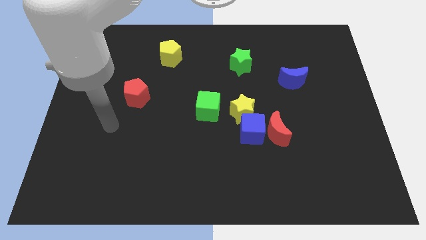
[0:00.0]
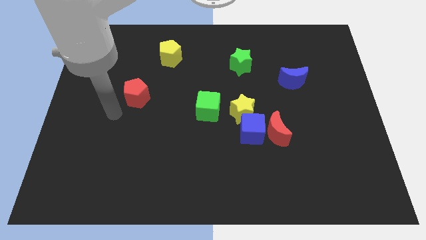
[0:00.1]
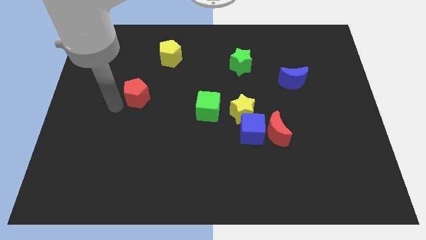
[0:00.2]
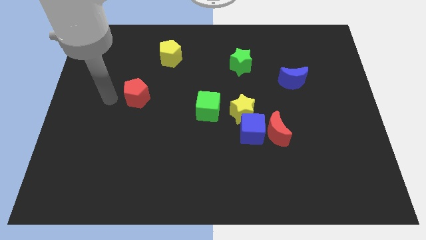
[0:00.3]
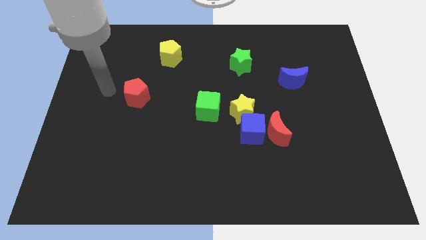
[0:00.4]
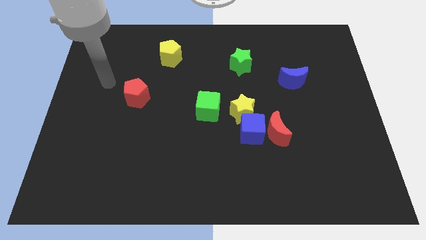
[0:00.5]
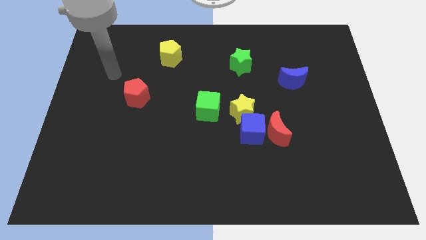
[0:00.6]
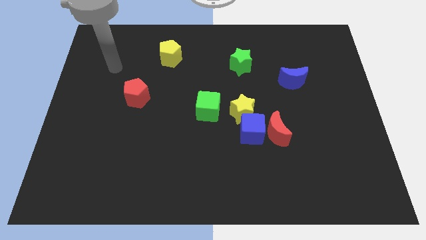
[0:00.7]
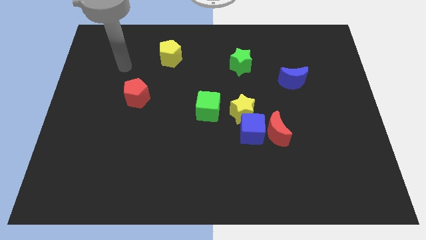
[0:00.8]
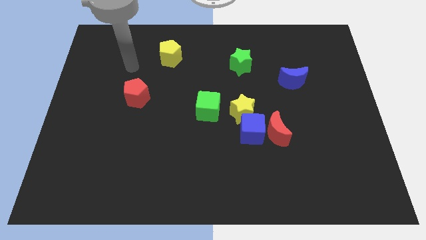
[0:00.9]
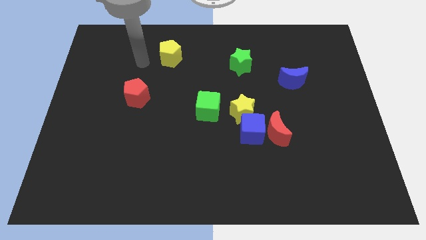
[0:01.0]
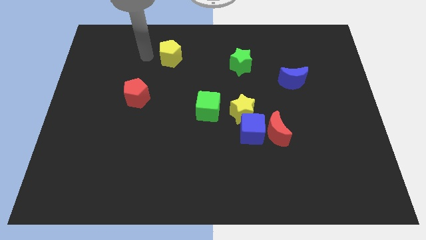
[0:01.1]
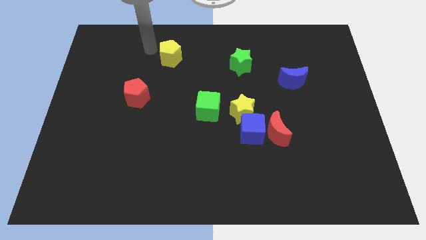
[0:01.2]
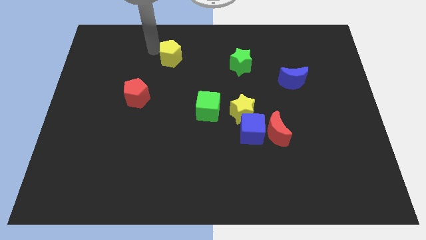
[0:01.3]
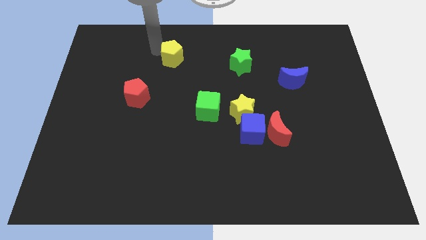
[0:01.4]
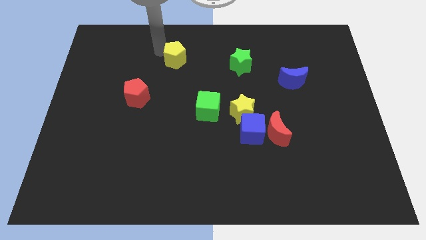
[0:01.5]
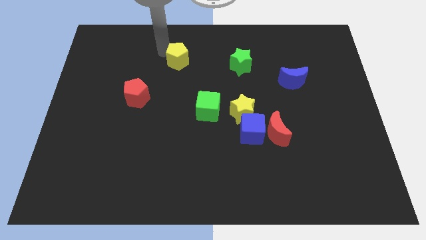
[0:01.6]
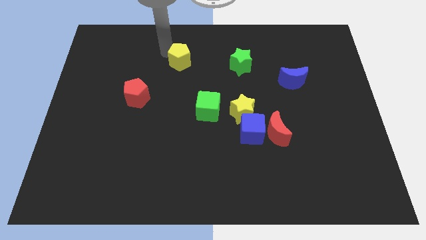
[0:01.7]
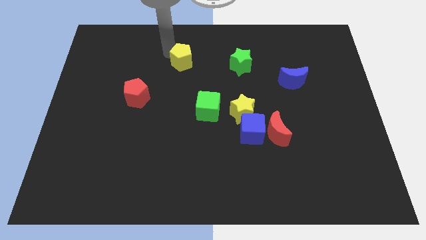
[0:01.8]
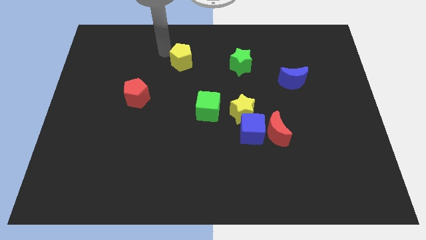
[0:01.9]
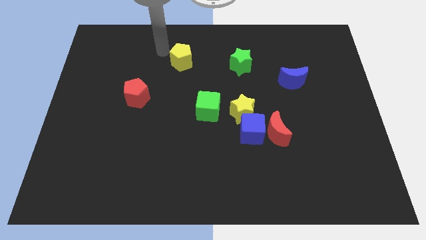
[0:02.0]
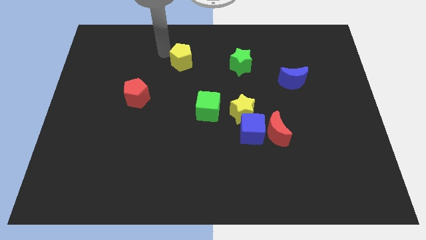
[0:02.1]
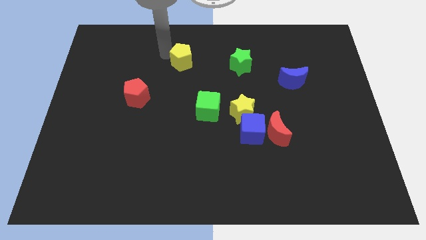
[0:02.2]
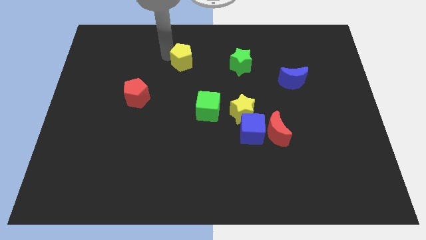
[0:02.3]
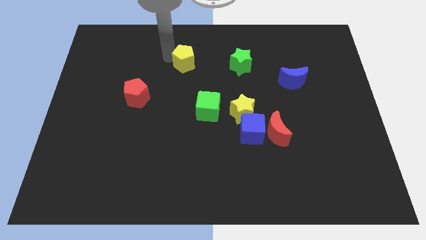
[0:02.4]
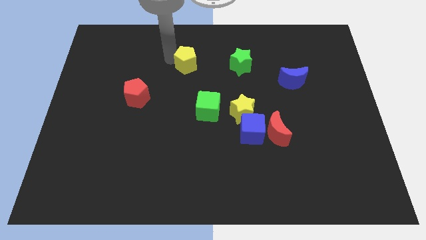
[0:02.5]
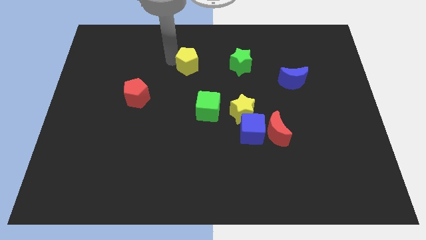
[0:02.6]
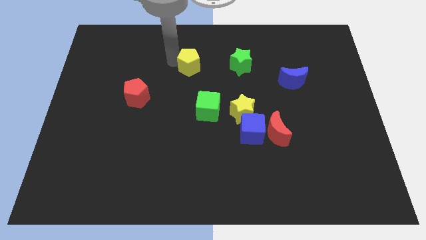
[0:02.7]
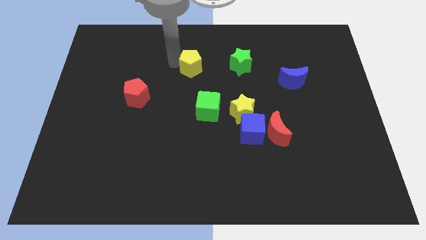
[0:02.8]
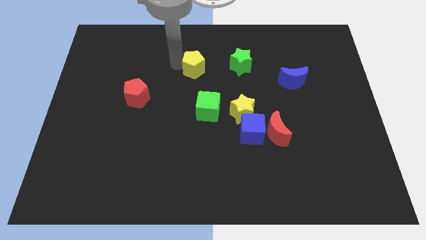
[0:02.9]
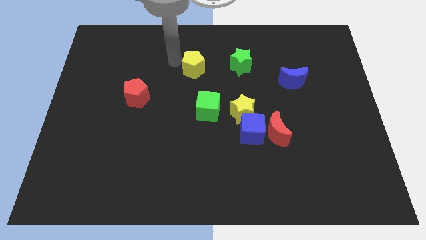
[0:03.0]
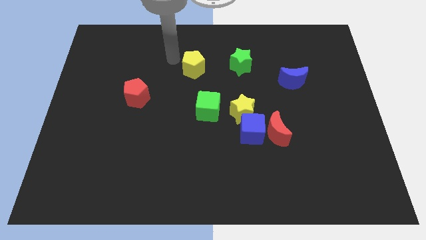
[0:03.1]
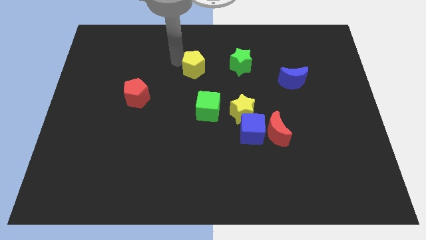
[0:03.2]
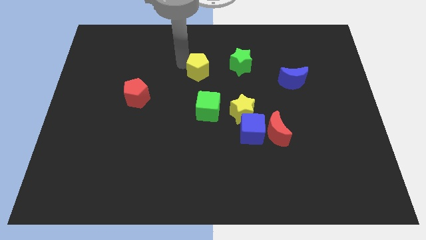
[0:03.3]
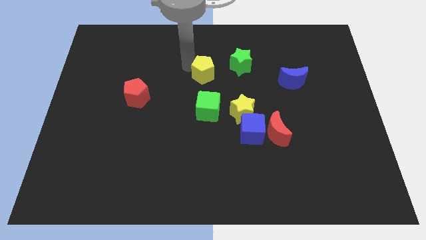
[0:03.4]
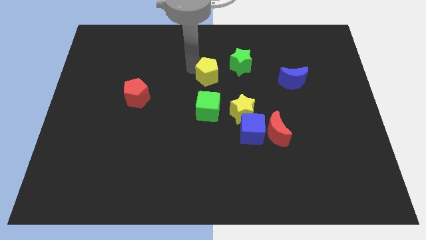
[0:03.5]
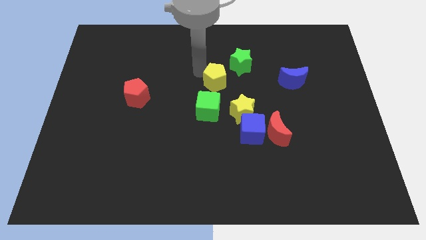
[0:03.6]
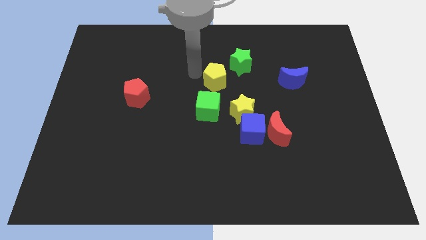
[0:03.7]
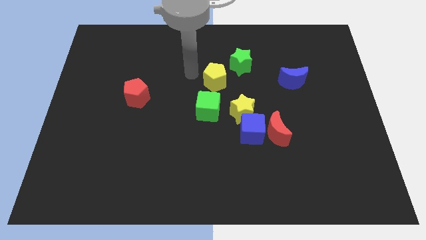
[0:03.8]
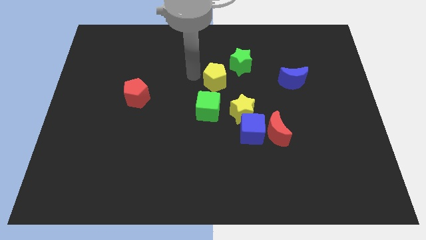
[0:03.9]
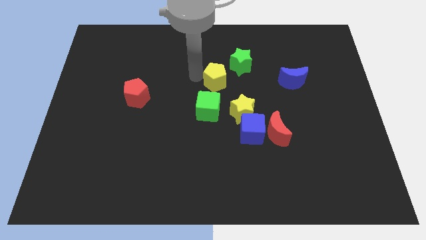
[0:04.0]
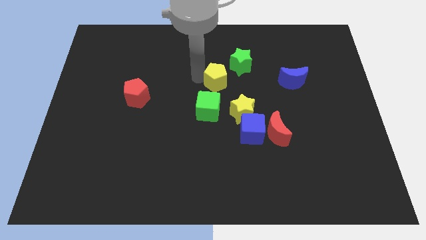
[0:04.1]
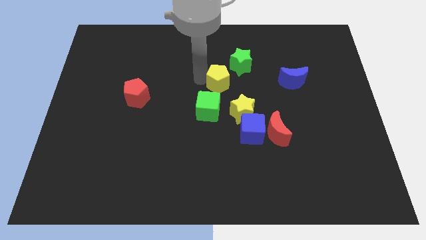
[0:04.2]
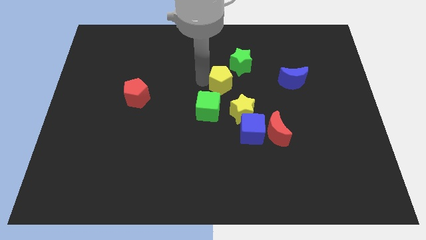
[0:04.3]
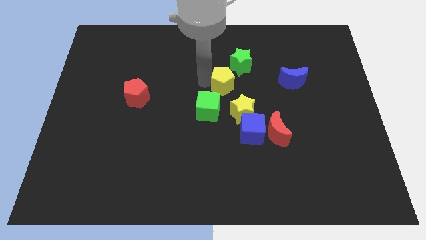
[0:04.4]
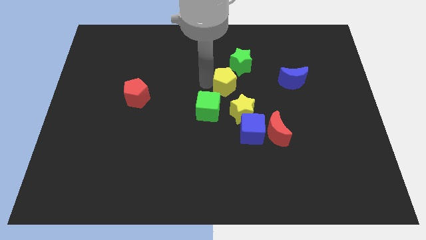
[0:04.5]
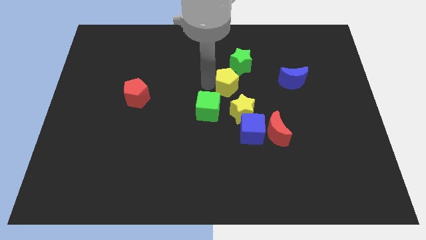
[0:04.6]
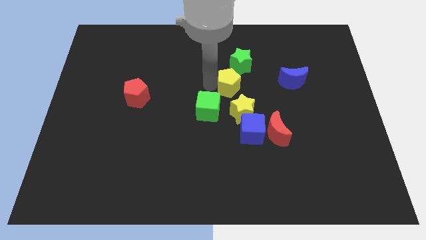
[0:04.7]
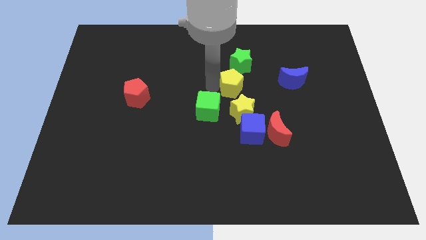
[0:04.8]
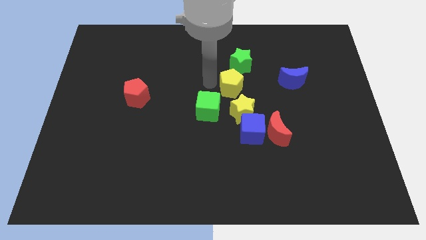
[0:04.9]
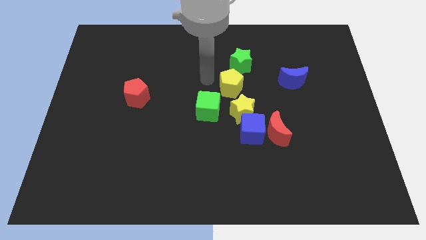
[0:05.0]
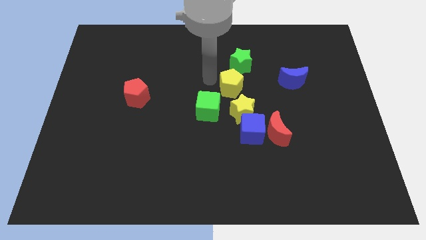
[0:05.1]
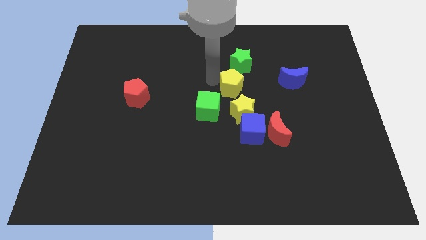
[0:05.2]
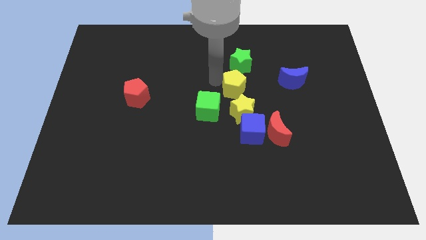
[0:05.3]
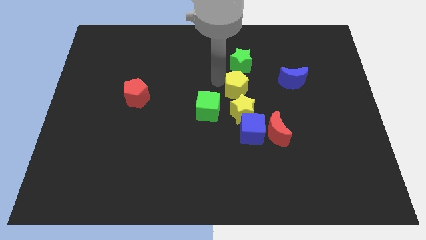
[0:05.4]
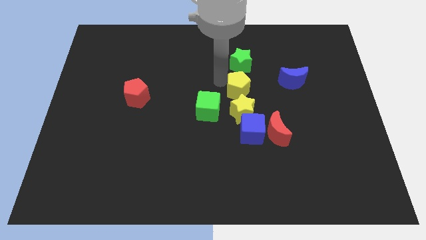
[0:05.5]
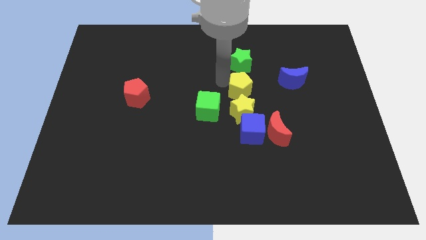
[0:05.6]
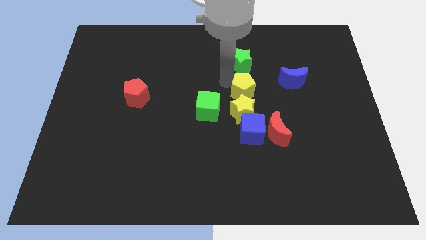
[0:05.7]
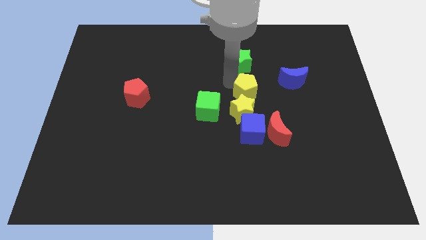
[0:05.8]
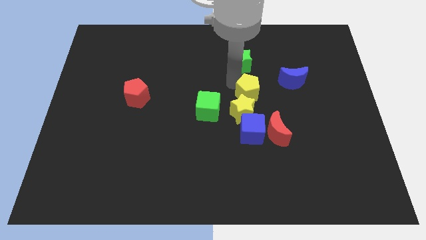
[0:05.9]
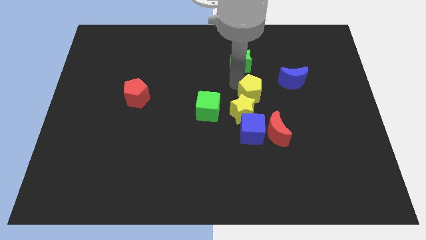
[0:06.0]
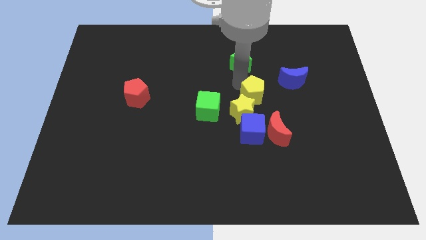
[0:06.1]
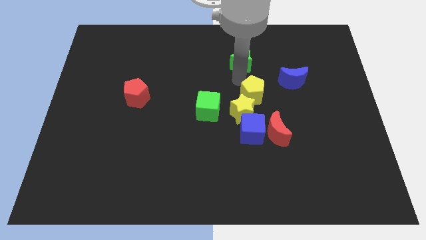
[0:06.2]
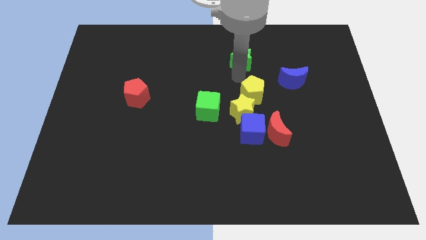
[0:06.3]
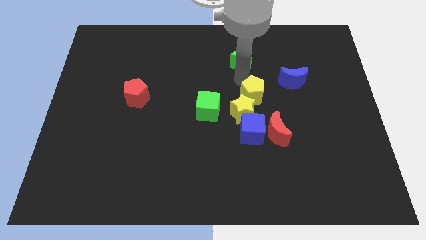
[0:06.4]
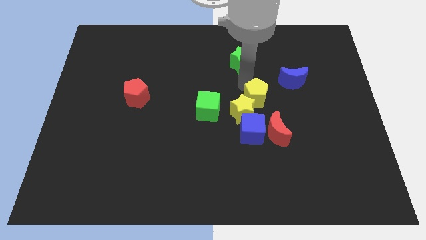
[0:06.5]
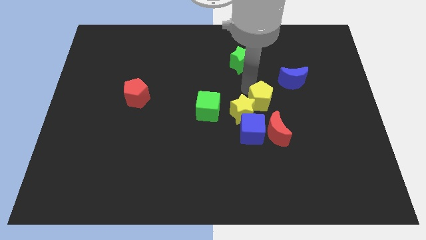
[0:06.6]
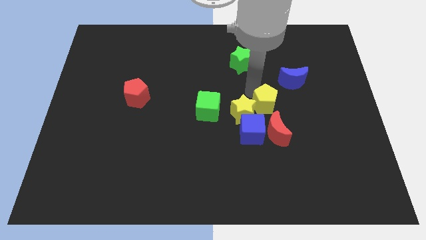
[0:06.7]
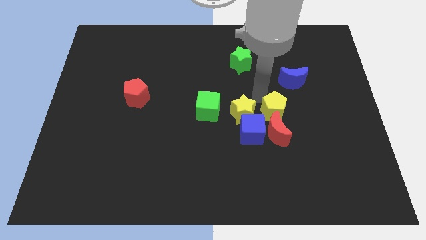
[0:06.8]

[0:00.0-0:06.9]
move the yellow pentagon next to the red moon
